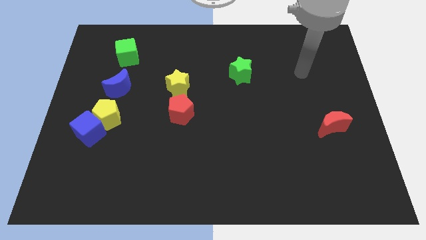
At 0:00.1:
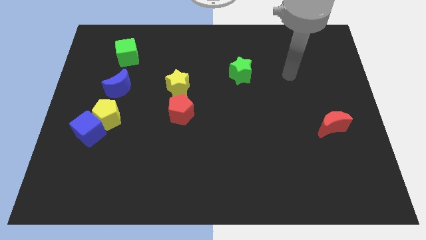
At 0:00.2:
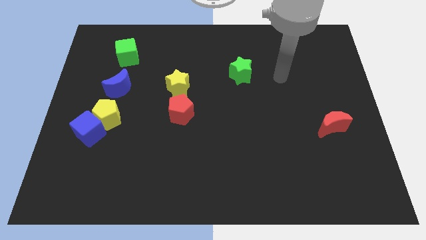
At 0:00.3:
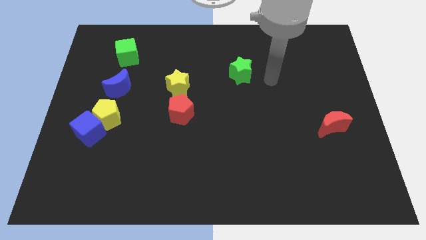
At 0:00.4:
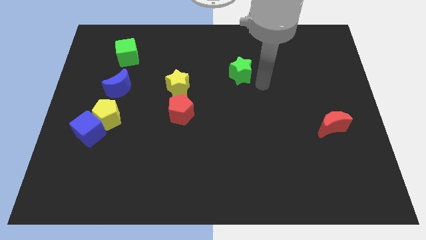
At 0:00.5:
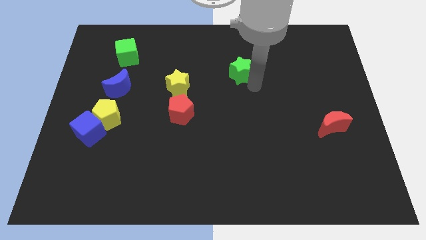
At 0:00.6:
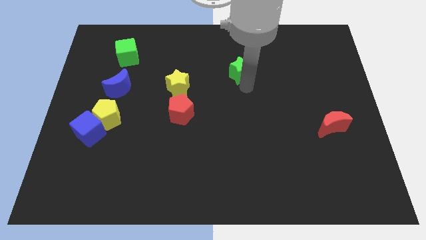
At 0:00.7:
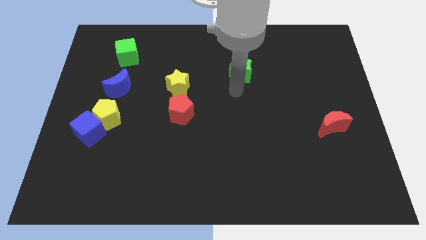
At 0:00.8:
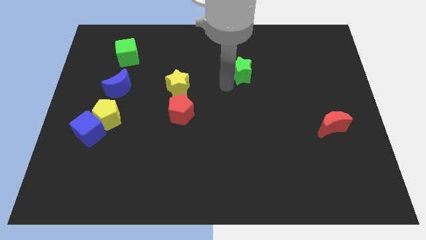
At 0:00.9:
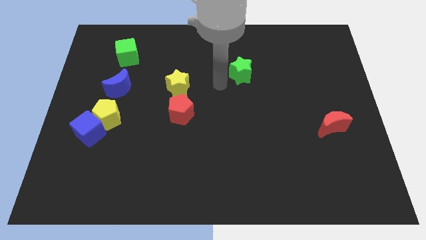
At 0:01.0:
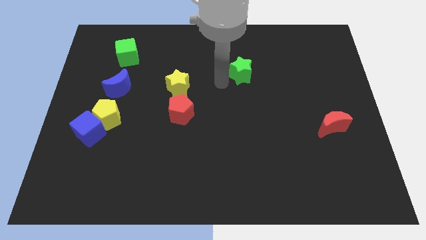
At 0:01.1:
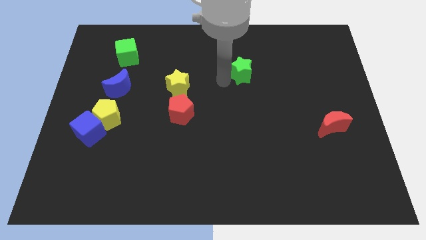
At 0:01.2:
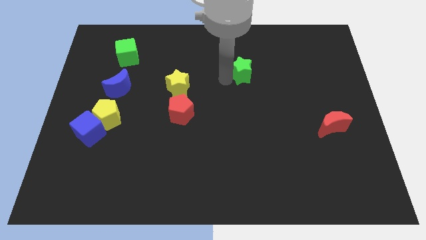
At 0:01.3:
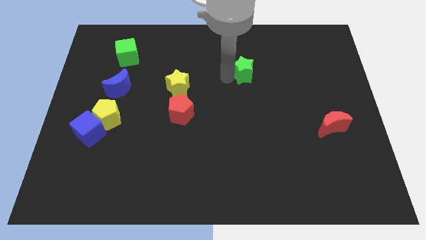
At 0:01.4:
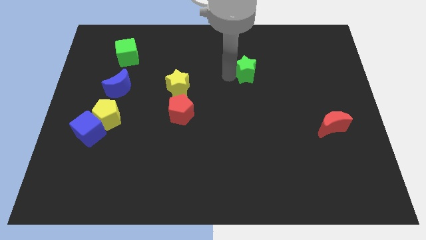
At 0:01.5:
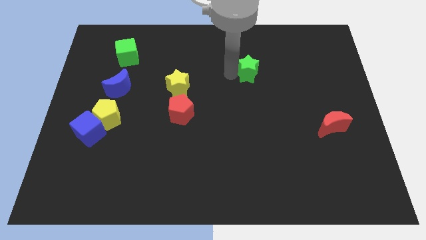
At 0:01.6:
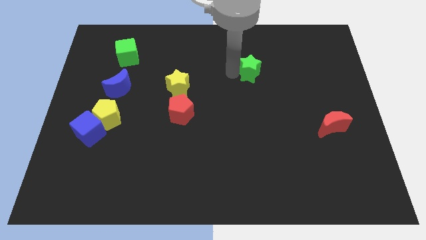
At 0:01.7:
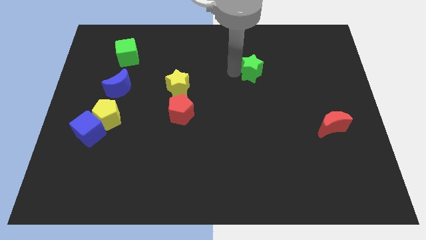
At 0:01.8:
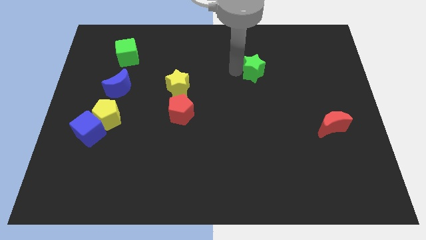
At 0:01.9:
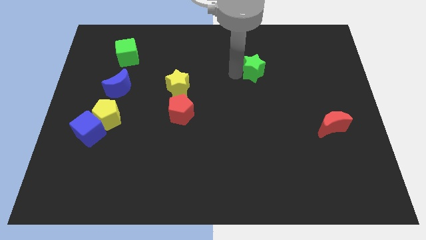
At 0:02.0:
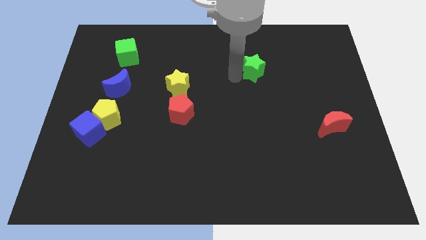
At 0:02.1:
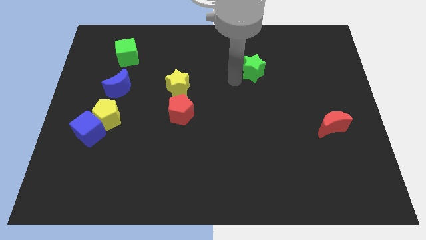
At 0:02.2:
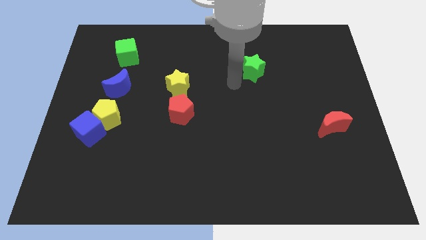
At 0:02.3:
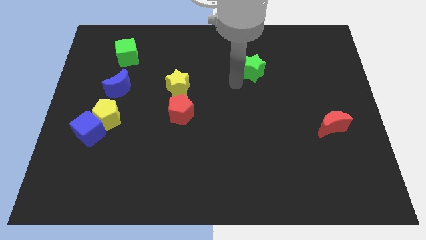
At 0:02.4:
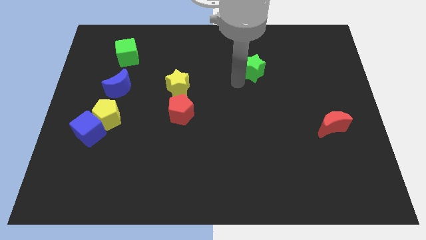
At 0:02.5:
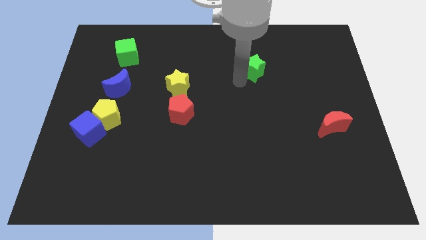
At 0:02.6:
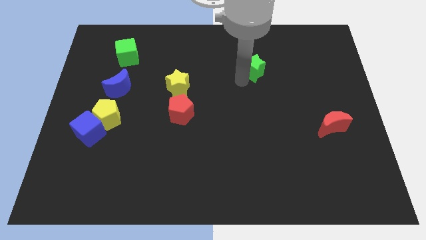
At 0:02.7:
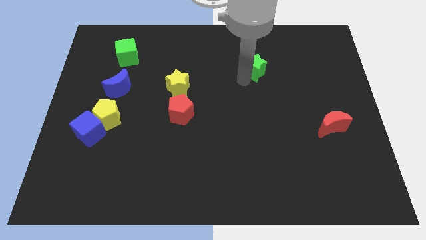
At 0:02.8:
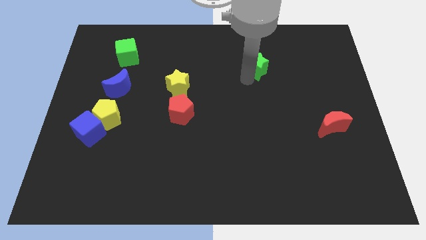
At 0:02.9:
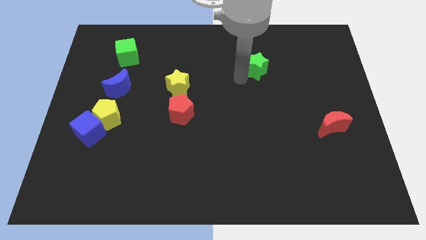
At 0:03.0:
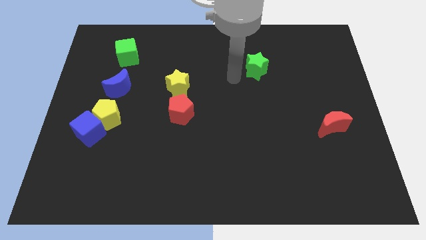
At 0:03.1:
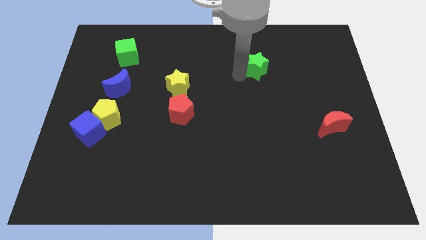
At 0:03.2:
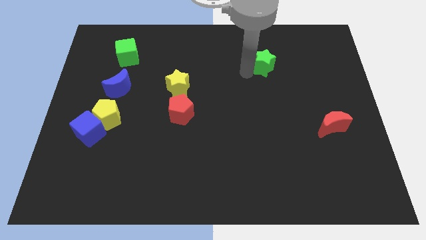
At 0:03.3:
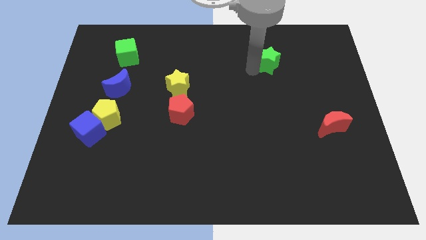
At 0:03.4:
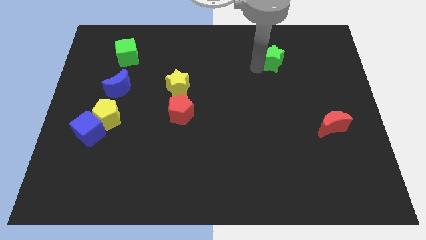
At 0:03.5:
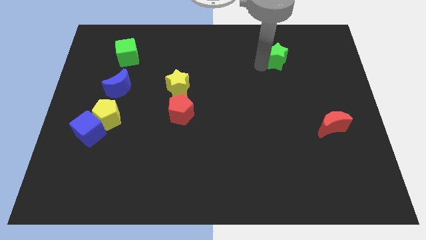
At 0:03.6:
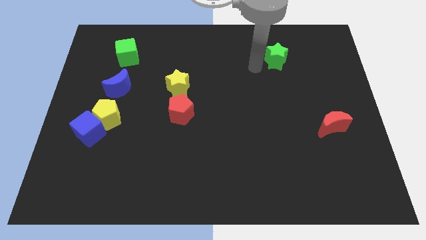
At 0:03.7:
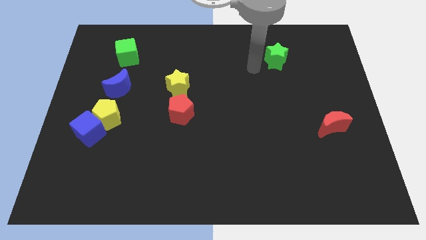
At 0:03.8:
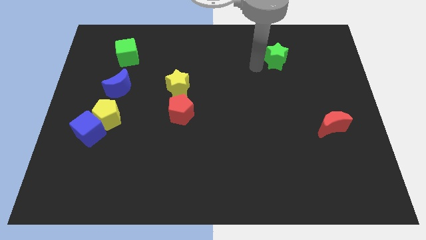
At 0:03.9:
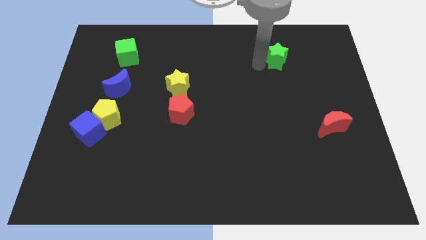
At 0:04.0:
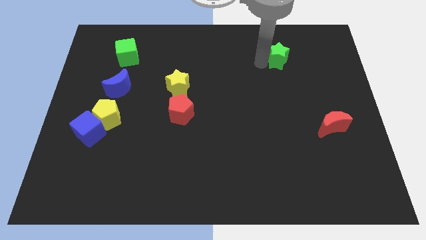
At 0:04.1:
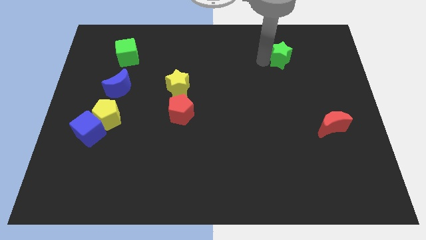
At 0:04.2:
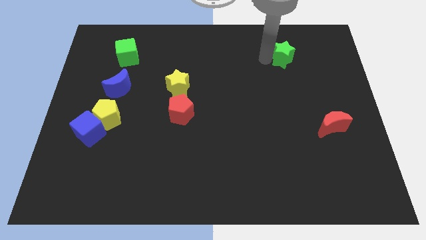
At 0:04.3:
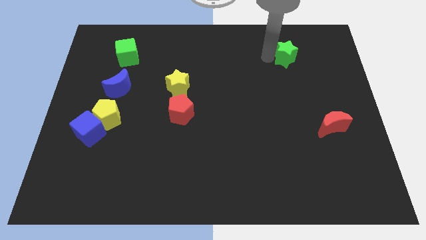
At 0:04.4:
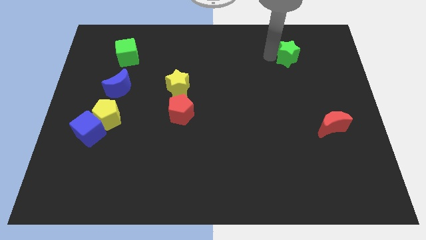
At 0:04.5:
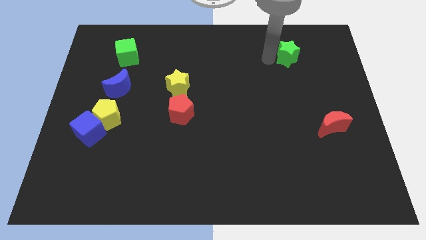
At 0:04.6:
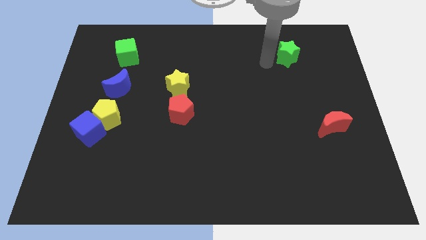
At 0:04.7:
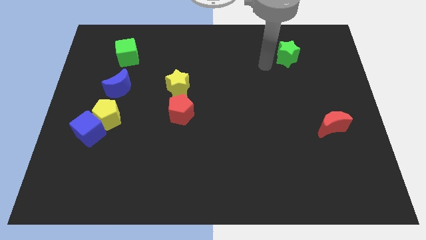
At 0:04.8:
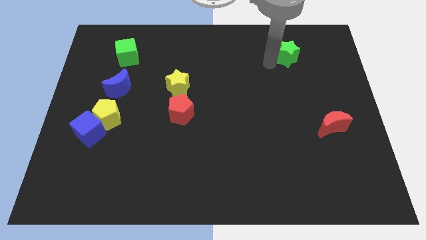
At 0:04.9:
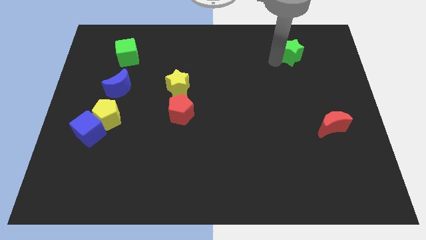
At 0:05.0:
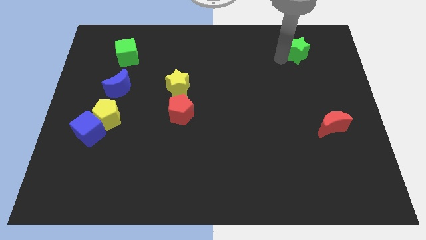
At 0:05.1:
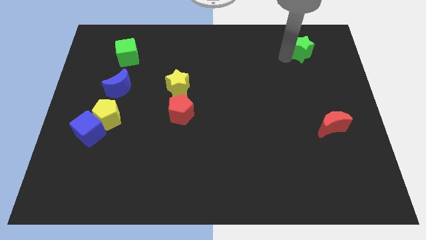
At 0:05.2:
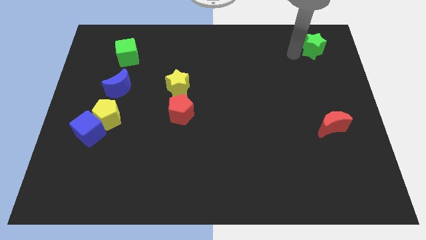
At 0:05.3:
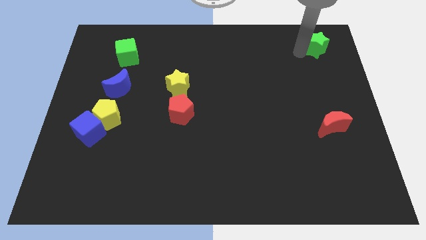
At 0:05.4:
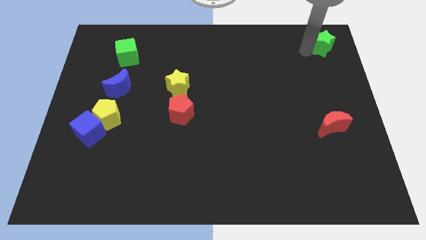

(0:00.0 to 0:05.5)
put the green star to the top right corner

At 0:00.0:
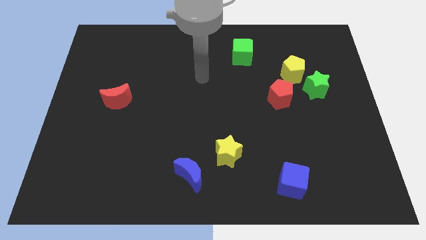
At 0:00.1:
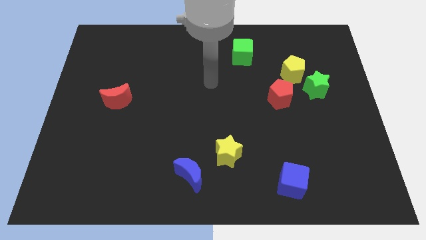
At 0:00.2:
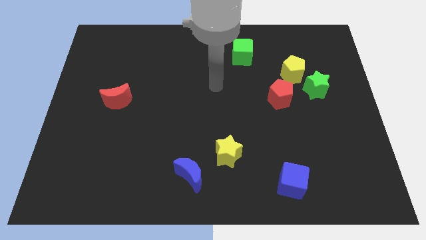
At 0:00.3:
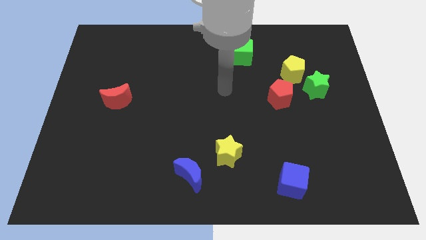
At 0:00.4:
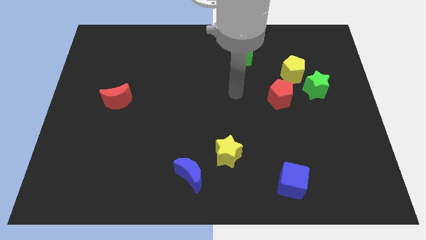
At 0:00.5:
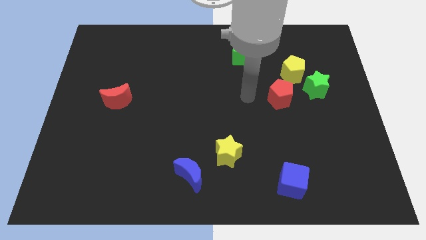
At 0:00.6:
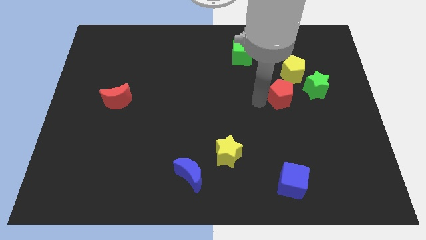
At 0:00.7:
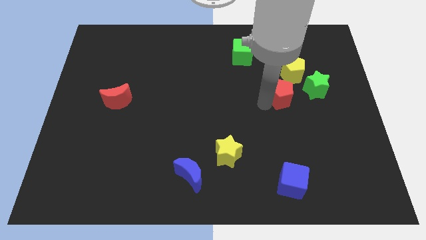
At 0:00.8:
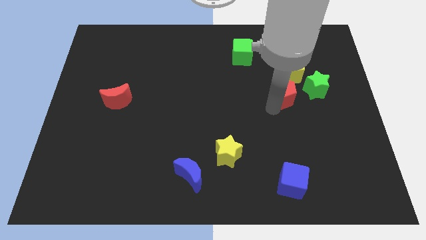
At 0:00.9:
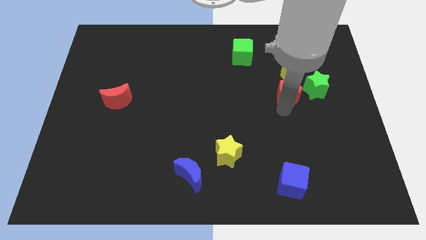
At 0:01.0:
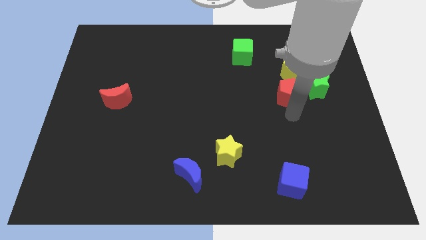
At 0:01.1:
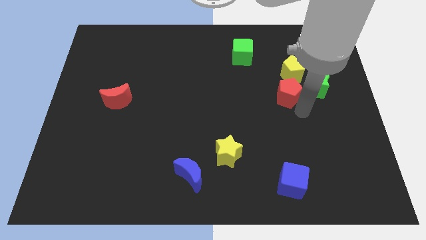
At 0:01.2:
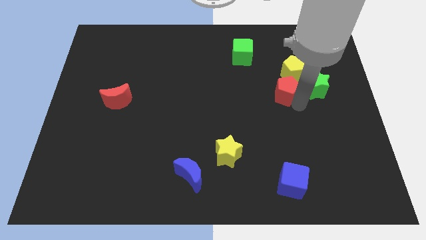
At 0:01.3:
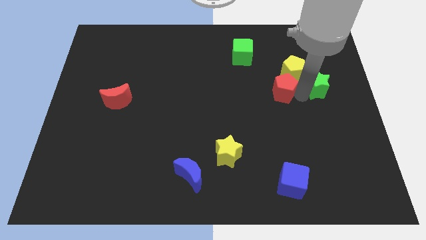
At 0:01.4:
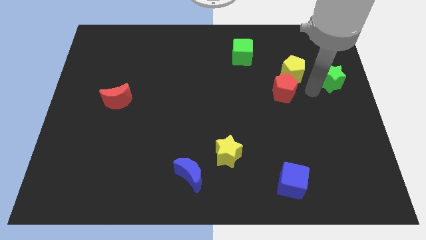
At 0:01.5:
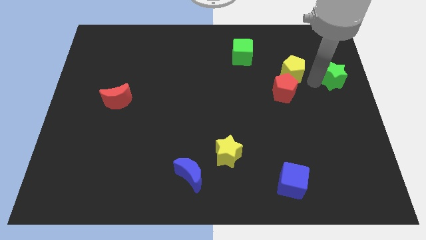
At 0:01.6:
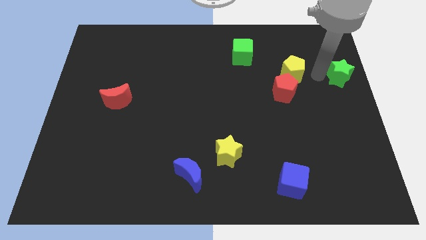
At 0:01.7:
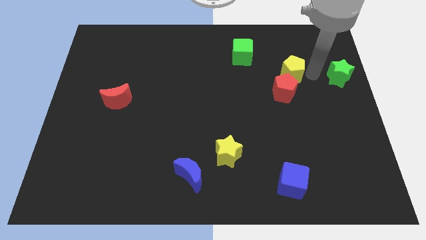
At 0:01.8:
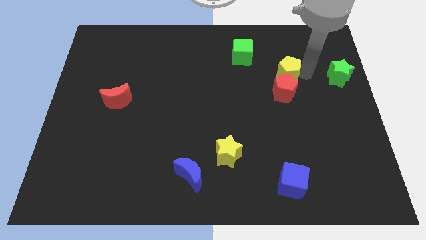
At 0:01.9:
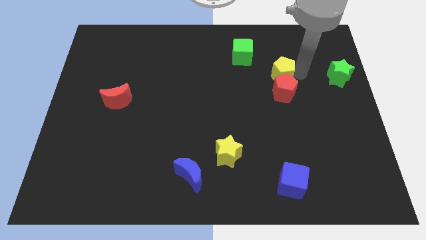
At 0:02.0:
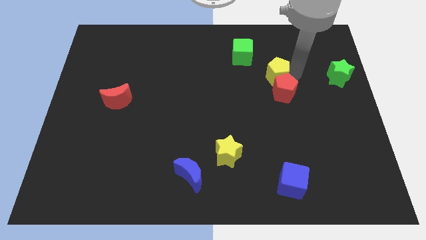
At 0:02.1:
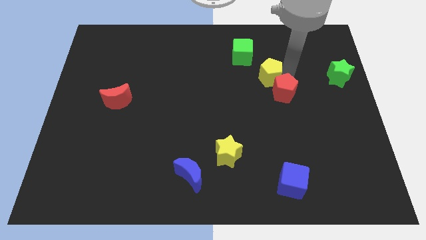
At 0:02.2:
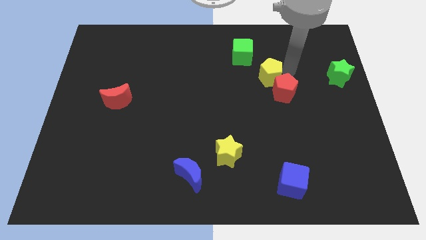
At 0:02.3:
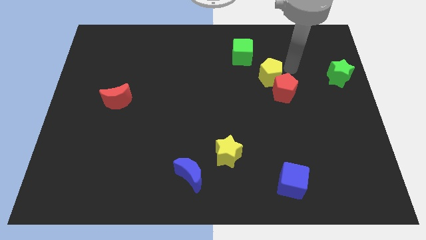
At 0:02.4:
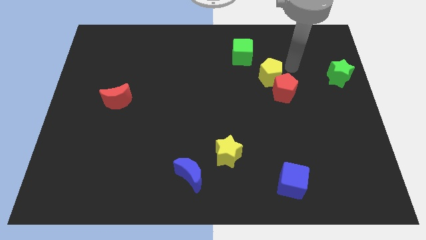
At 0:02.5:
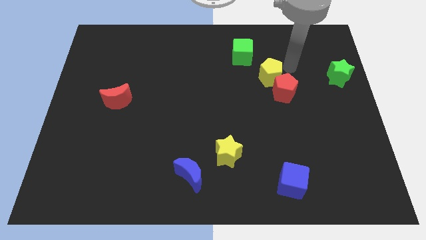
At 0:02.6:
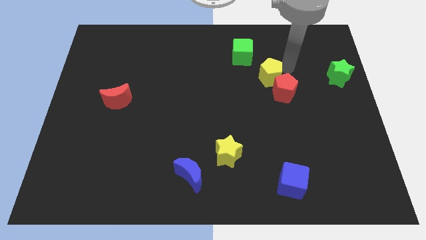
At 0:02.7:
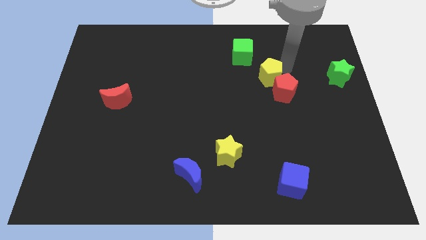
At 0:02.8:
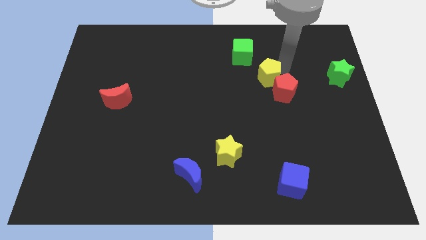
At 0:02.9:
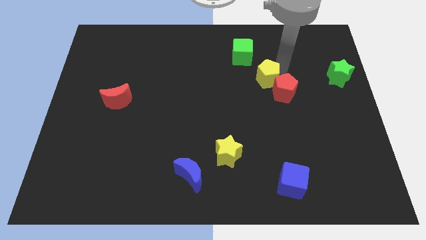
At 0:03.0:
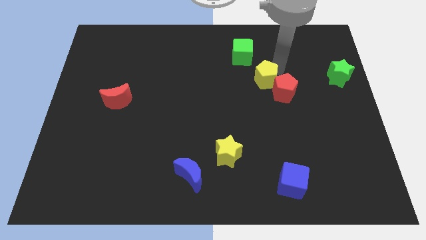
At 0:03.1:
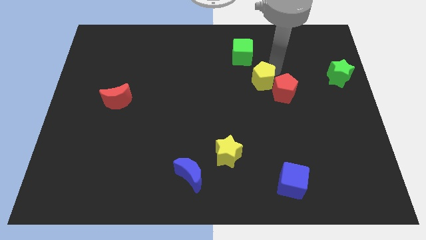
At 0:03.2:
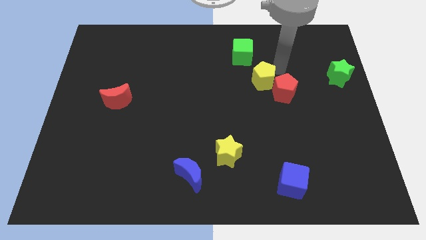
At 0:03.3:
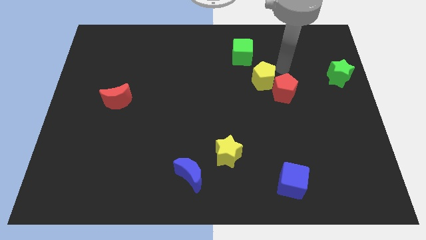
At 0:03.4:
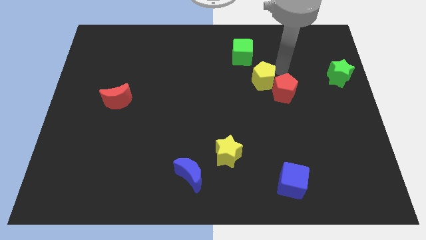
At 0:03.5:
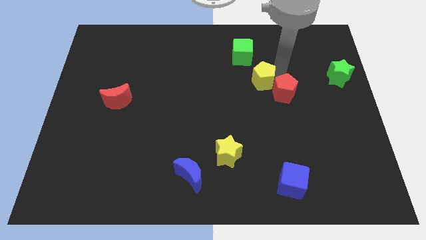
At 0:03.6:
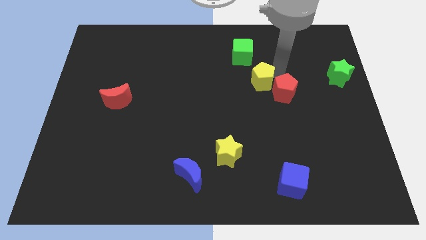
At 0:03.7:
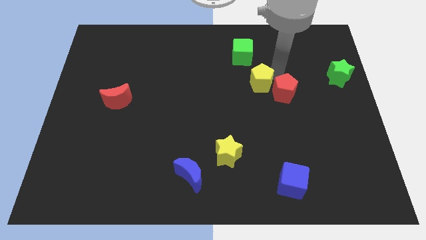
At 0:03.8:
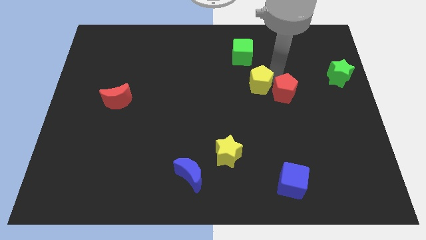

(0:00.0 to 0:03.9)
move the yellow pentagon to the center
